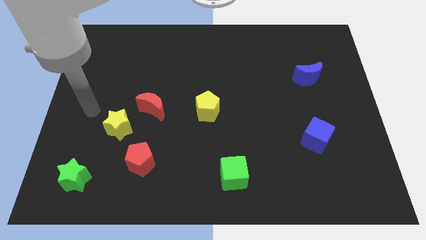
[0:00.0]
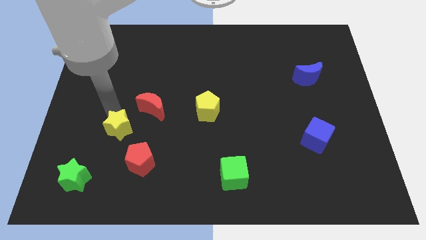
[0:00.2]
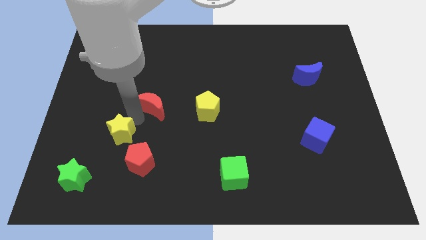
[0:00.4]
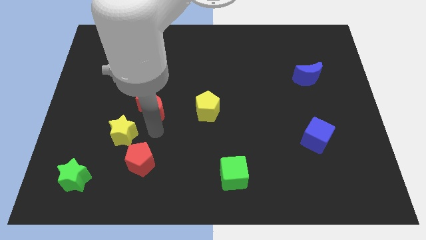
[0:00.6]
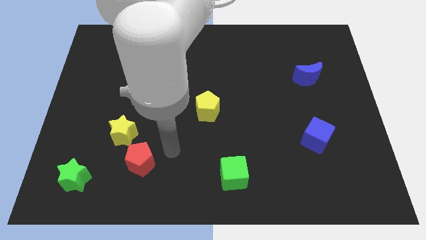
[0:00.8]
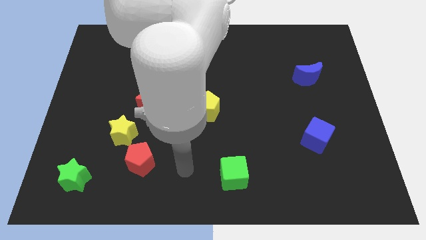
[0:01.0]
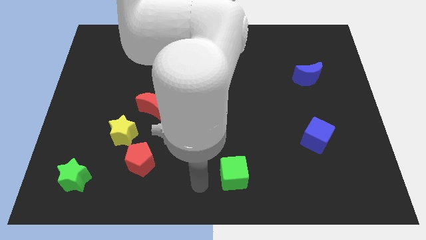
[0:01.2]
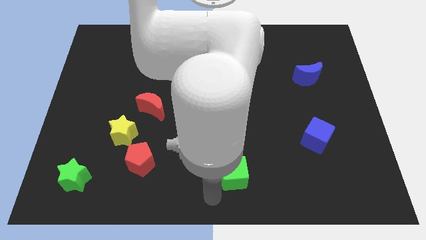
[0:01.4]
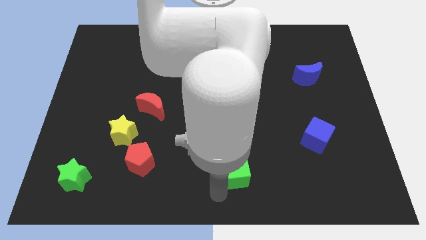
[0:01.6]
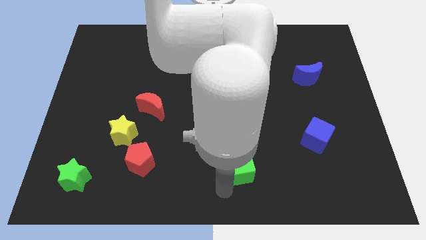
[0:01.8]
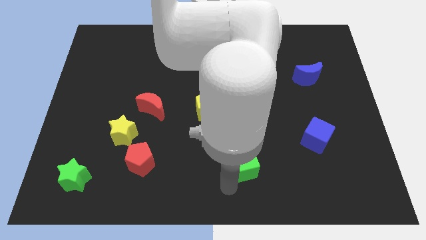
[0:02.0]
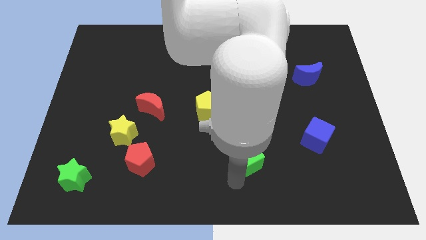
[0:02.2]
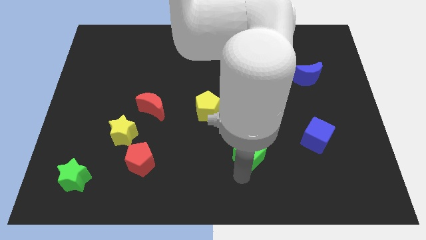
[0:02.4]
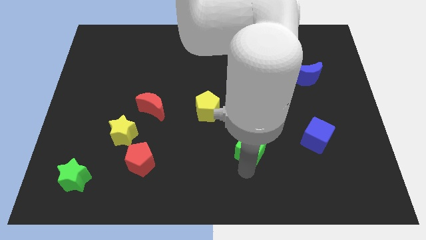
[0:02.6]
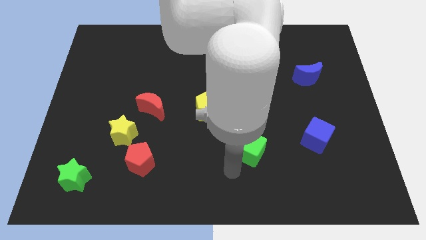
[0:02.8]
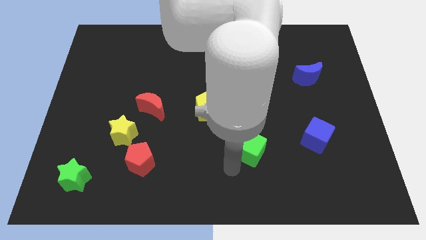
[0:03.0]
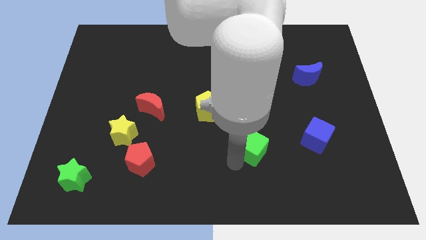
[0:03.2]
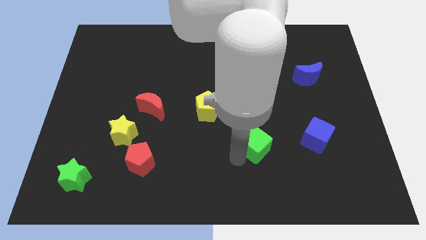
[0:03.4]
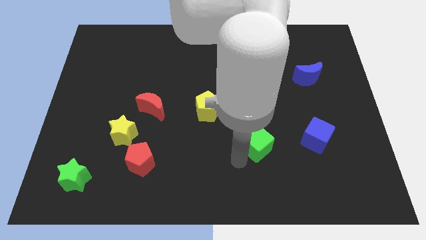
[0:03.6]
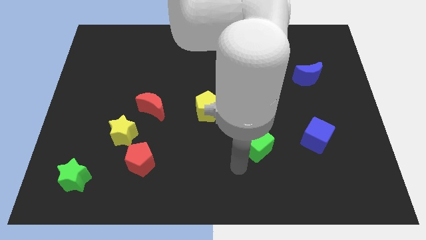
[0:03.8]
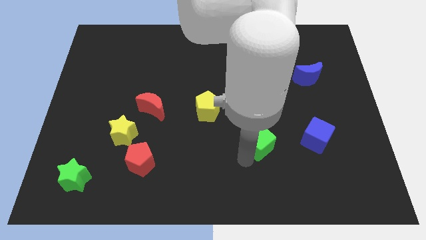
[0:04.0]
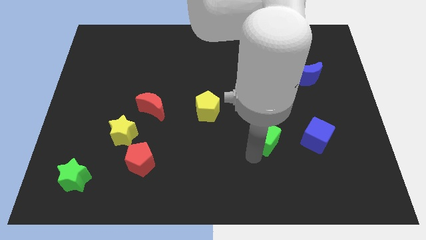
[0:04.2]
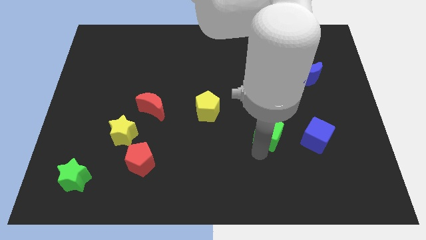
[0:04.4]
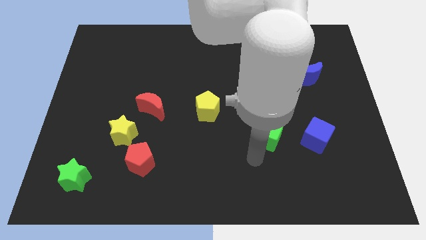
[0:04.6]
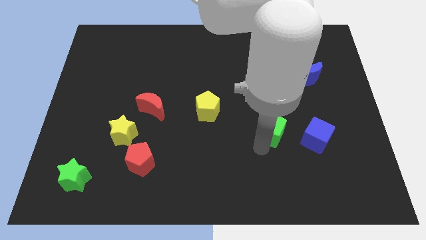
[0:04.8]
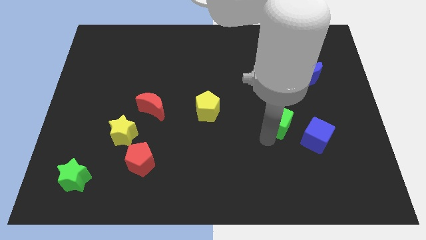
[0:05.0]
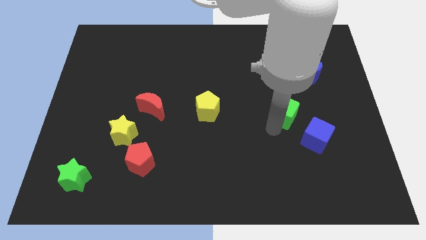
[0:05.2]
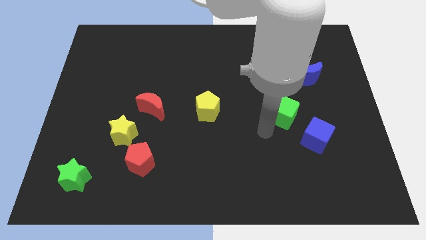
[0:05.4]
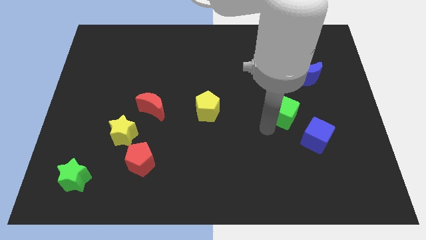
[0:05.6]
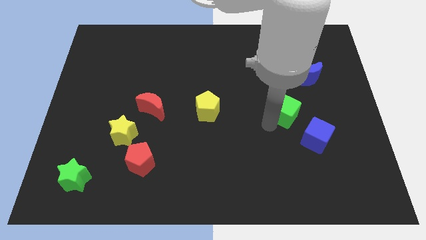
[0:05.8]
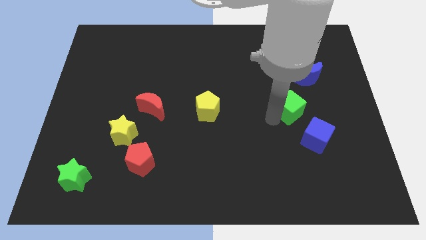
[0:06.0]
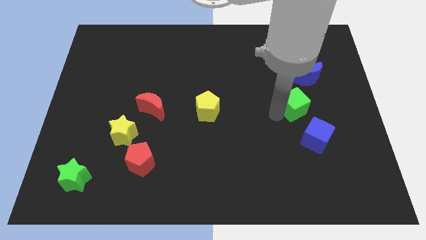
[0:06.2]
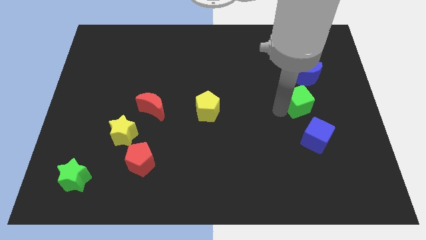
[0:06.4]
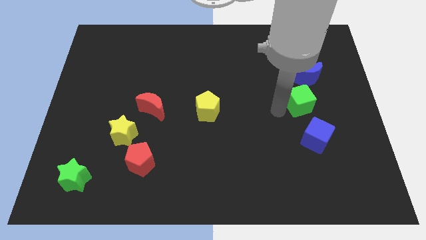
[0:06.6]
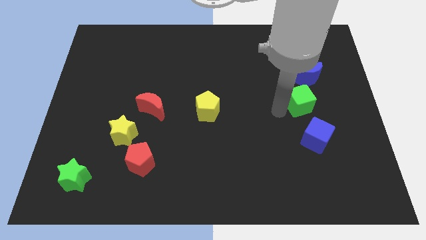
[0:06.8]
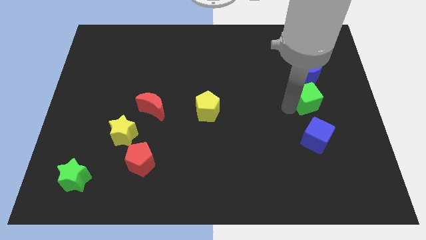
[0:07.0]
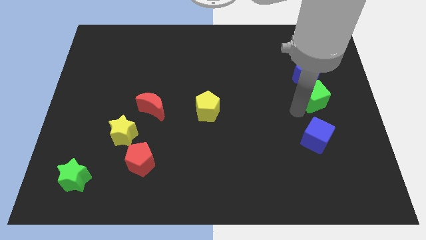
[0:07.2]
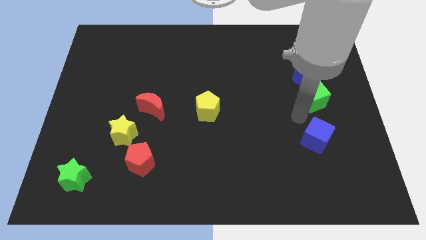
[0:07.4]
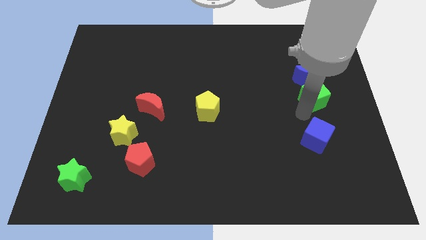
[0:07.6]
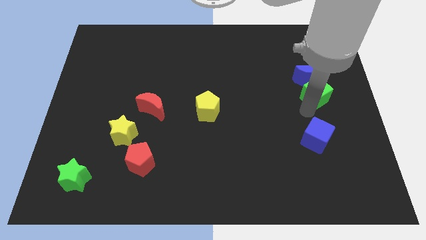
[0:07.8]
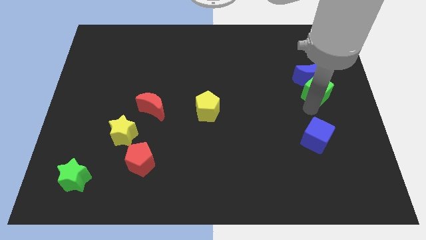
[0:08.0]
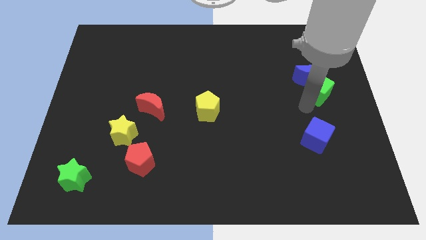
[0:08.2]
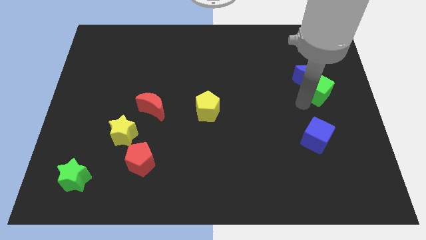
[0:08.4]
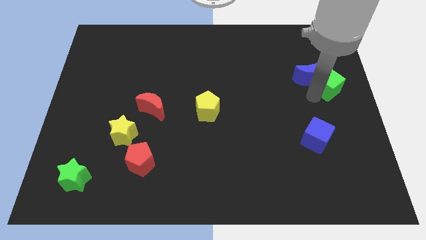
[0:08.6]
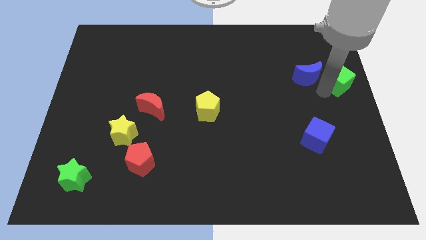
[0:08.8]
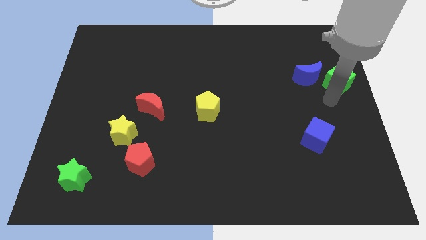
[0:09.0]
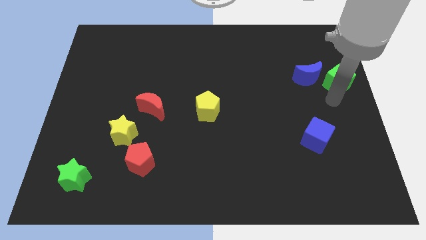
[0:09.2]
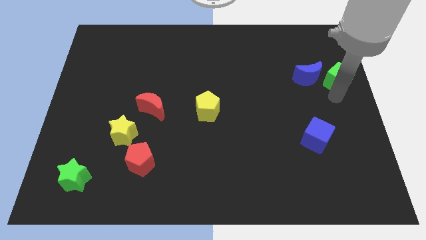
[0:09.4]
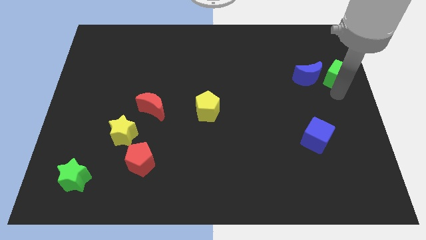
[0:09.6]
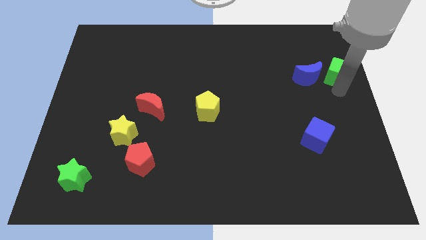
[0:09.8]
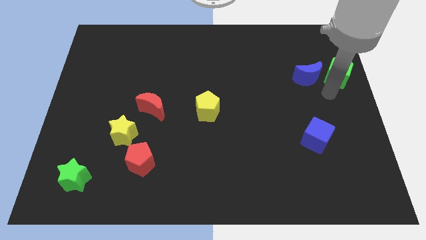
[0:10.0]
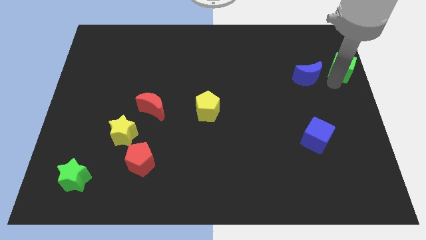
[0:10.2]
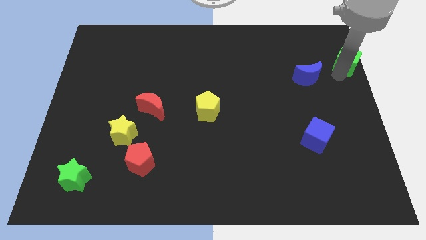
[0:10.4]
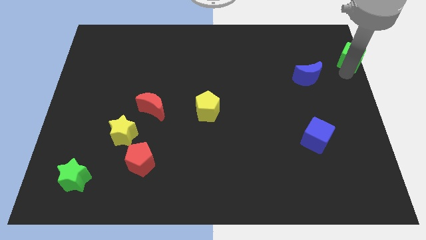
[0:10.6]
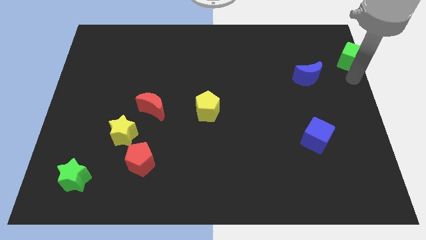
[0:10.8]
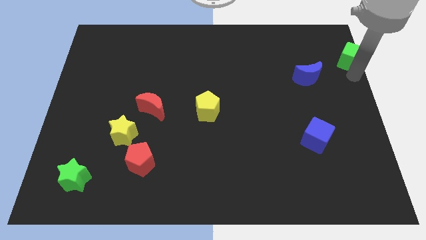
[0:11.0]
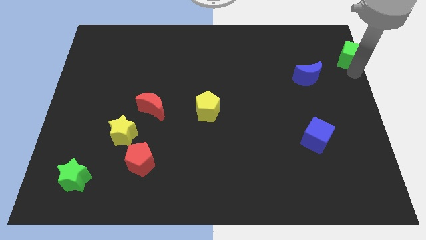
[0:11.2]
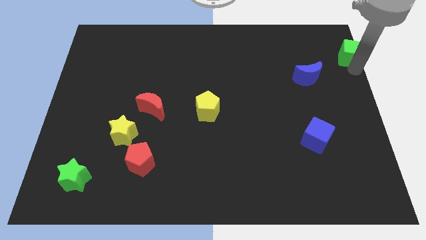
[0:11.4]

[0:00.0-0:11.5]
put the green cube to the top right of the board
